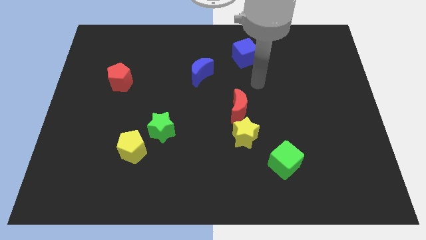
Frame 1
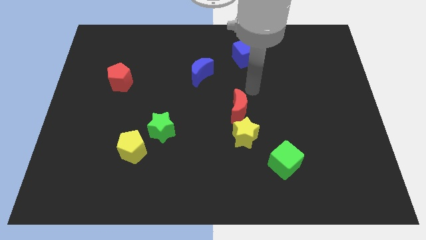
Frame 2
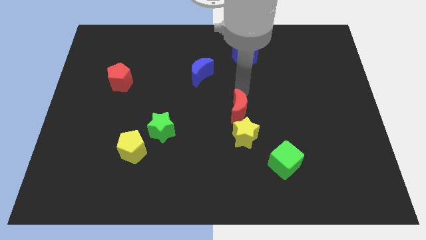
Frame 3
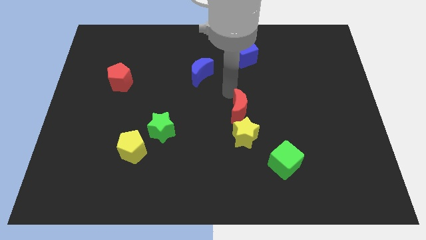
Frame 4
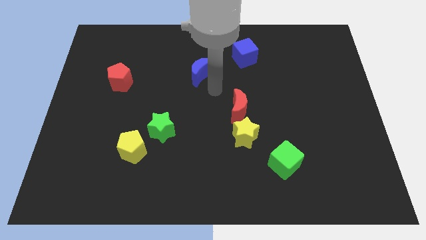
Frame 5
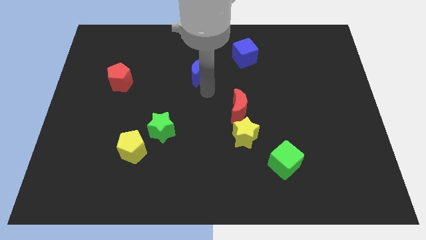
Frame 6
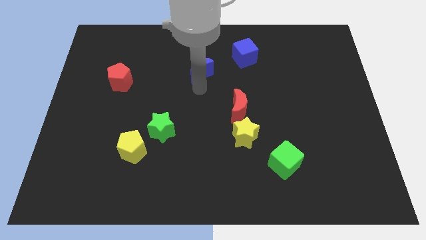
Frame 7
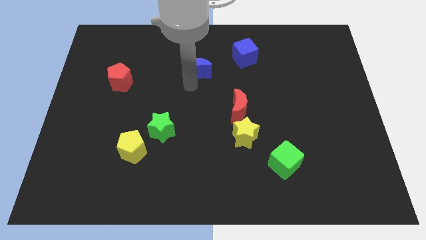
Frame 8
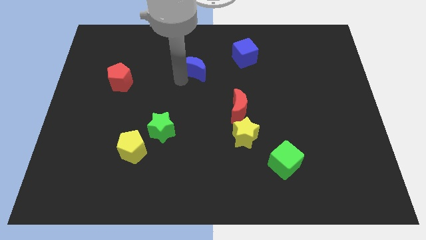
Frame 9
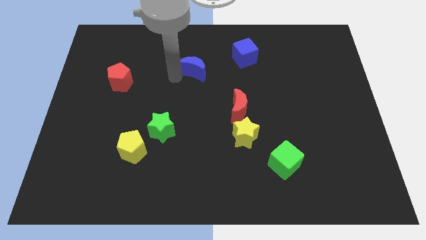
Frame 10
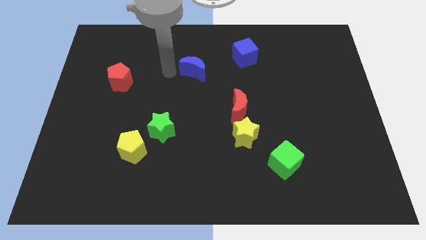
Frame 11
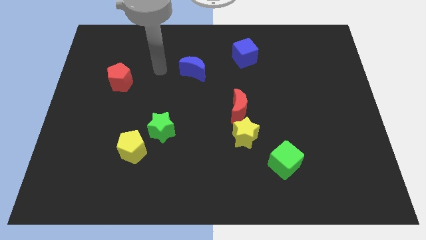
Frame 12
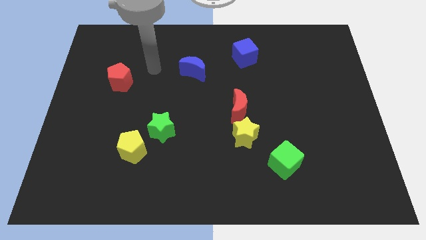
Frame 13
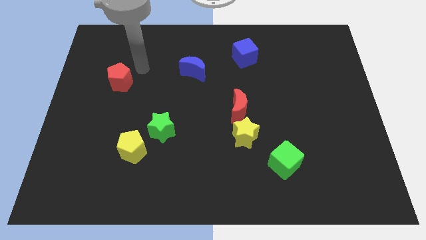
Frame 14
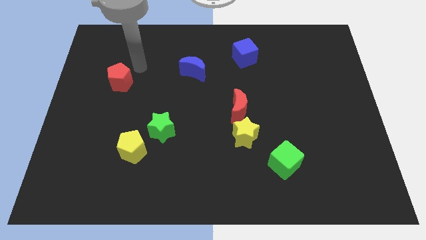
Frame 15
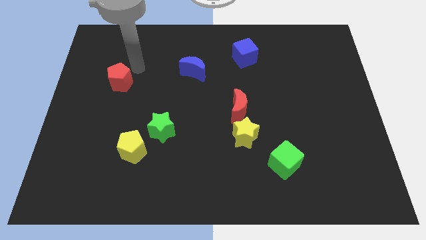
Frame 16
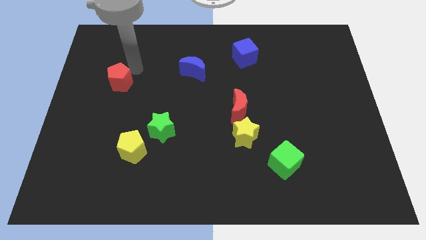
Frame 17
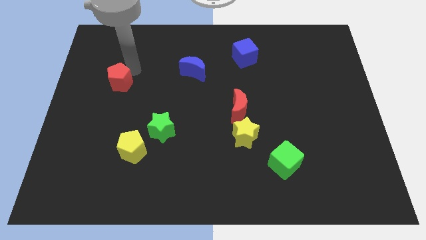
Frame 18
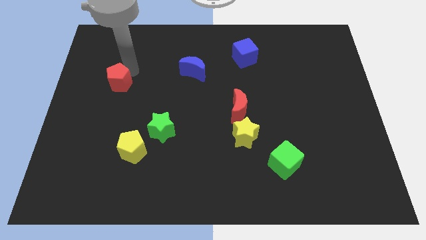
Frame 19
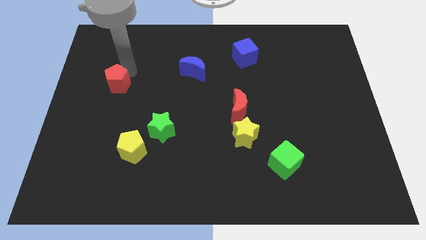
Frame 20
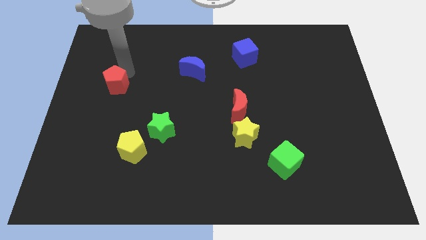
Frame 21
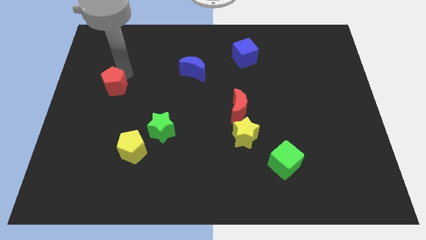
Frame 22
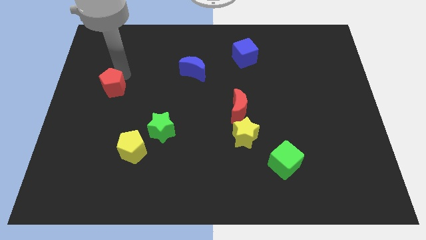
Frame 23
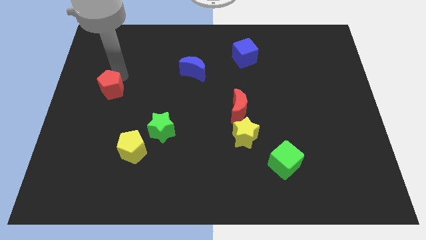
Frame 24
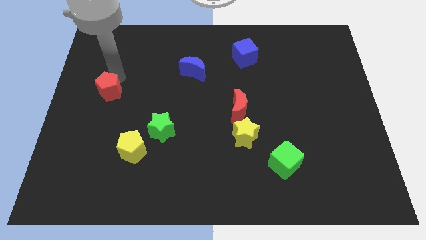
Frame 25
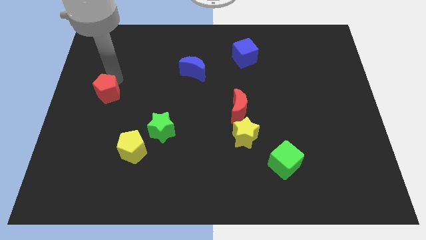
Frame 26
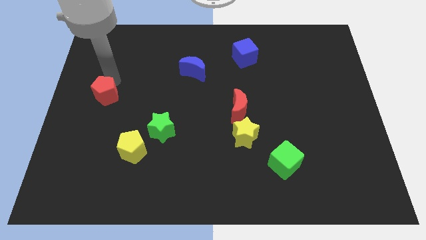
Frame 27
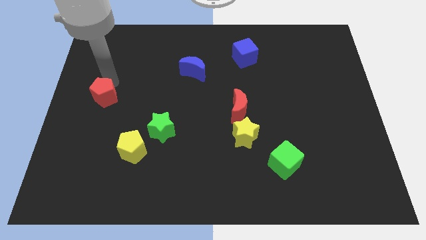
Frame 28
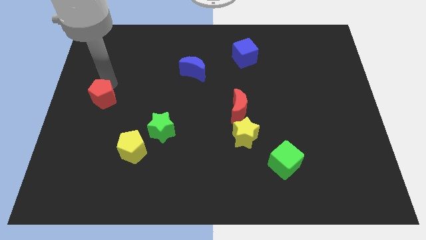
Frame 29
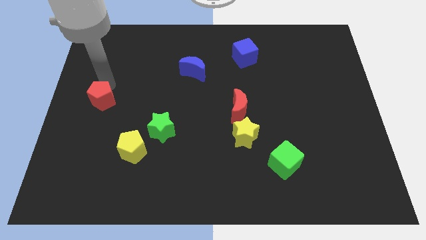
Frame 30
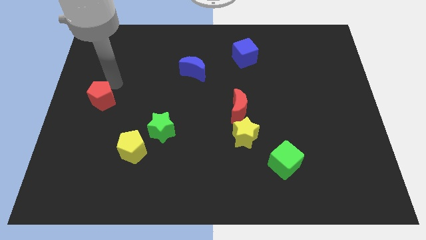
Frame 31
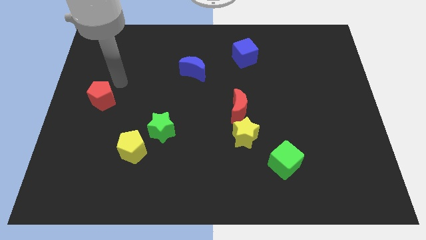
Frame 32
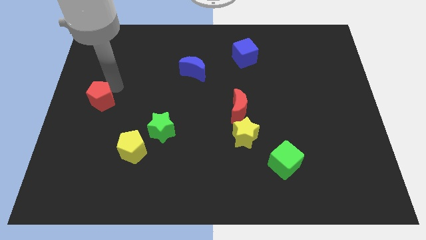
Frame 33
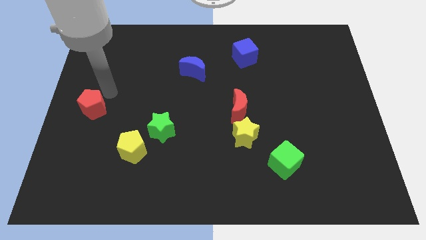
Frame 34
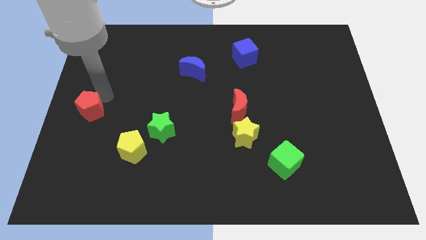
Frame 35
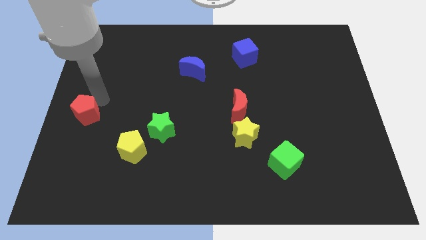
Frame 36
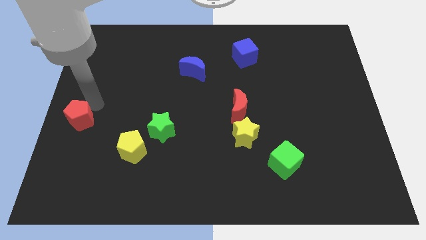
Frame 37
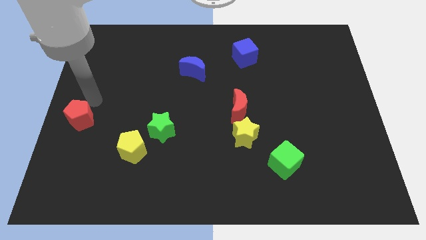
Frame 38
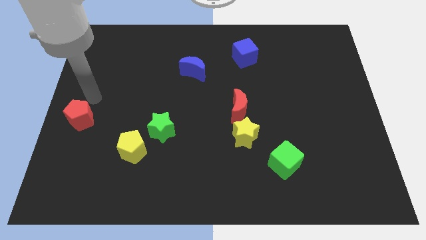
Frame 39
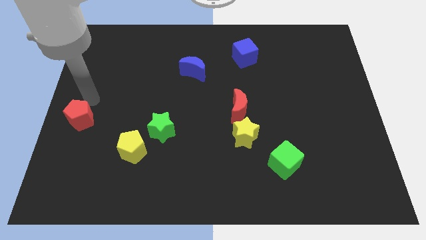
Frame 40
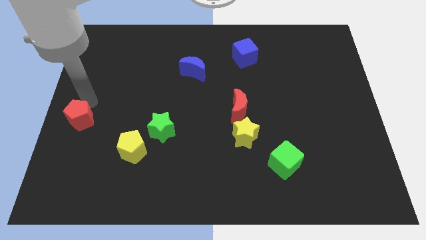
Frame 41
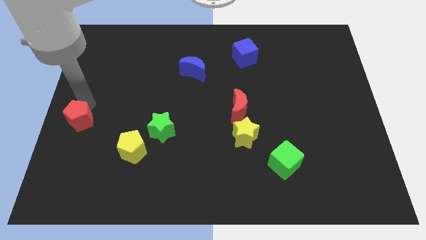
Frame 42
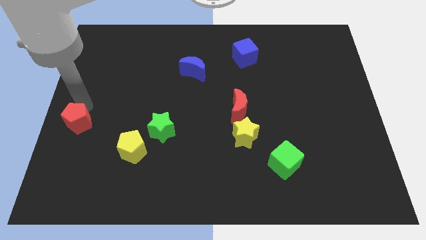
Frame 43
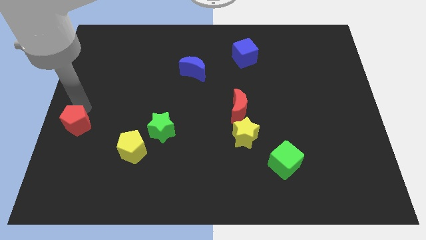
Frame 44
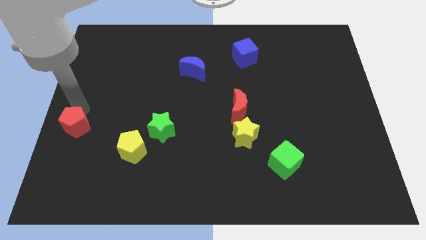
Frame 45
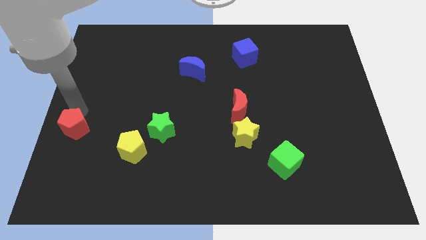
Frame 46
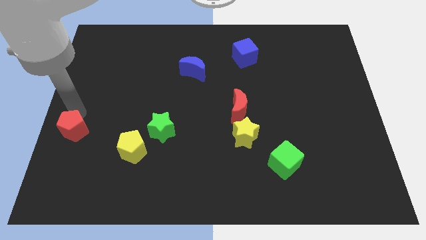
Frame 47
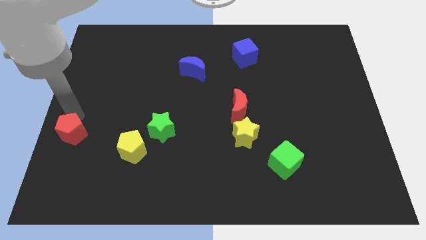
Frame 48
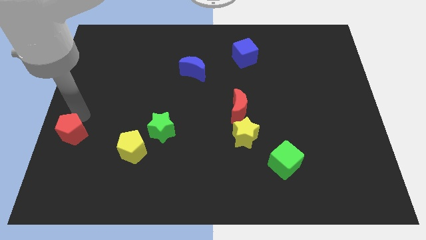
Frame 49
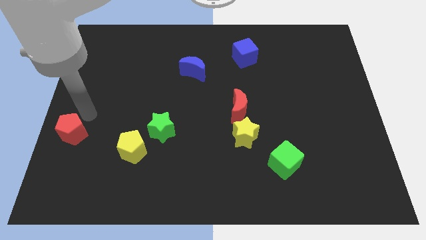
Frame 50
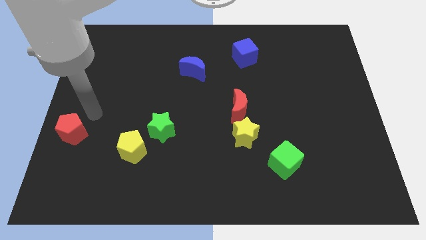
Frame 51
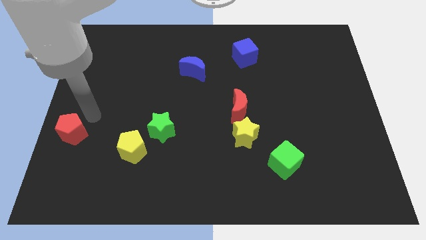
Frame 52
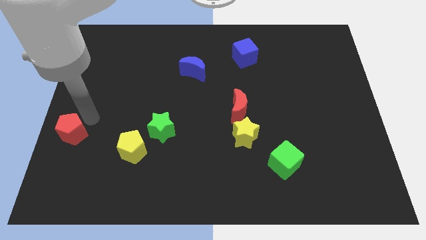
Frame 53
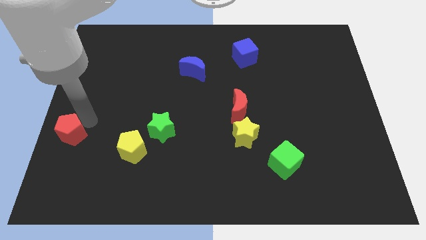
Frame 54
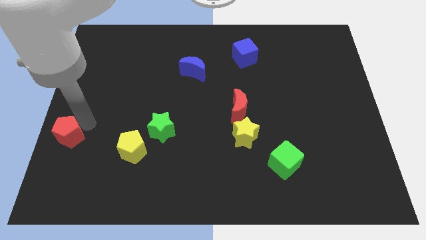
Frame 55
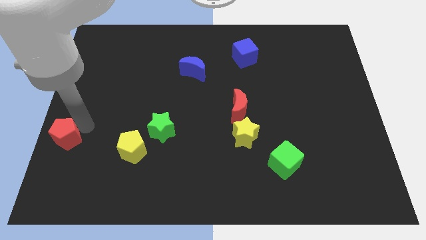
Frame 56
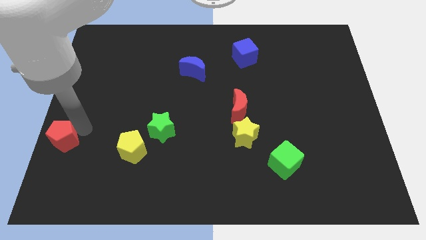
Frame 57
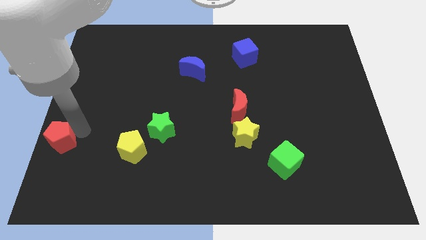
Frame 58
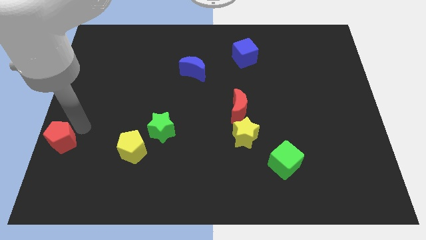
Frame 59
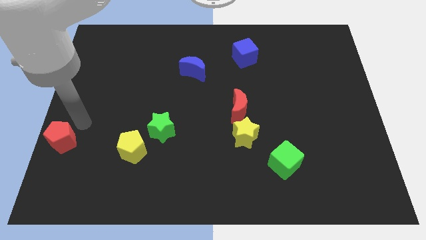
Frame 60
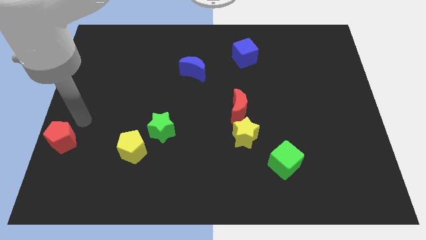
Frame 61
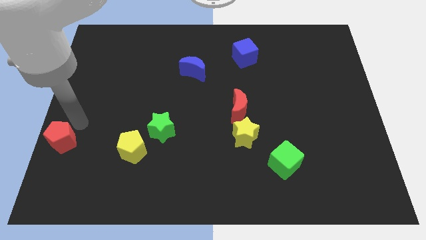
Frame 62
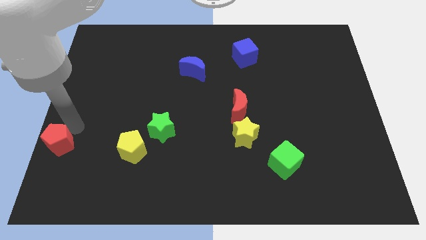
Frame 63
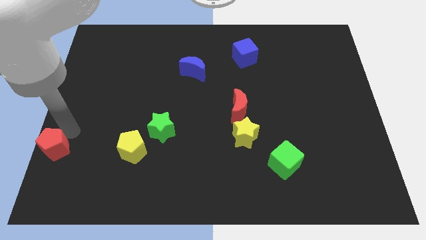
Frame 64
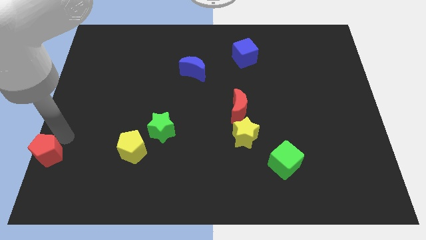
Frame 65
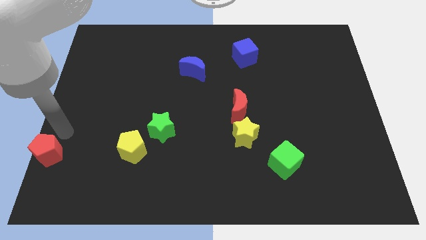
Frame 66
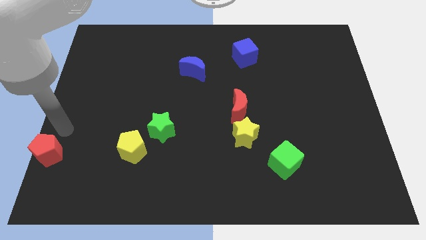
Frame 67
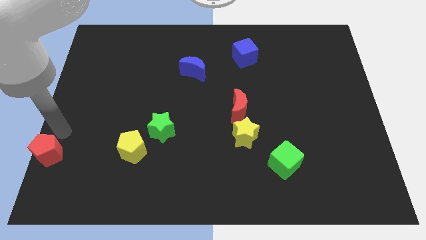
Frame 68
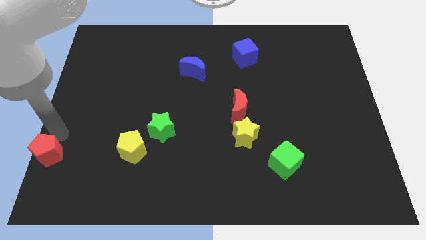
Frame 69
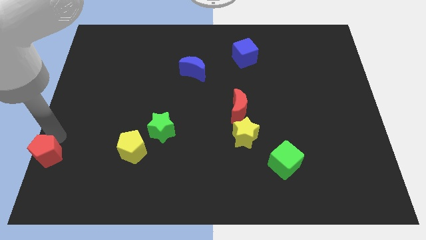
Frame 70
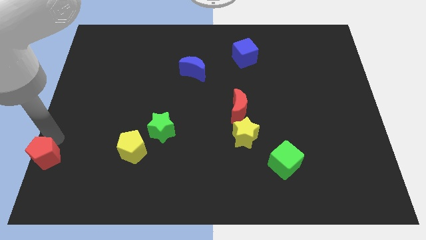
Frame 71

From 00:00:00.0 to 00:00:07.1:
move the red pentagon to the lower left corner
